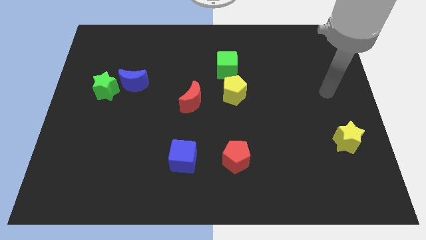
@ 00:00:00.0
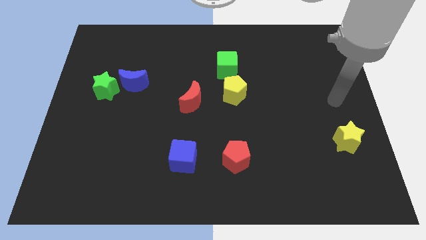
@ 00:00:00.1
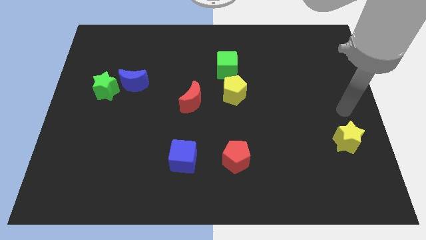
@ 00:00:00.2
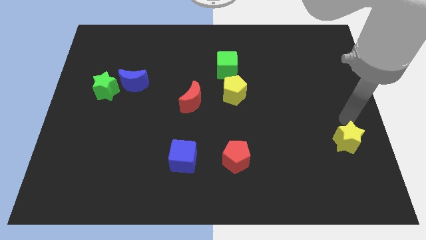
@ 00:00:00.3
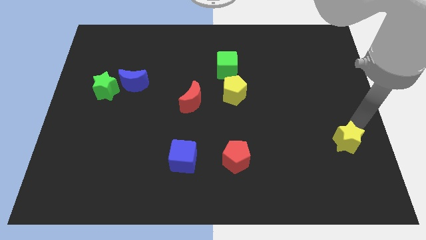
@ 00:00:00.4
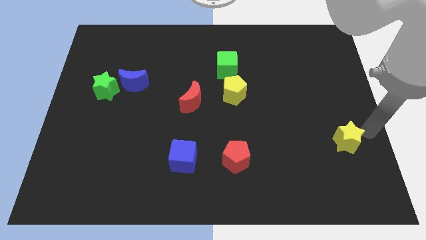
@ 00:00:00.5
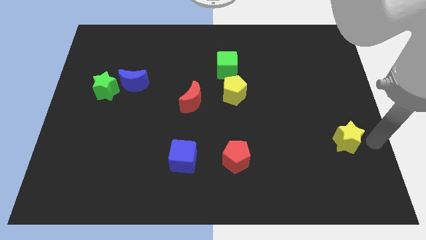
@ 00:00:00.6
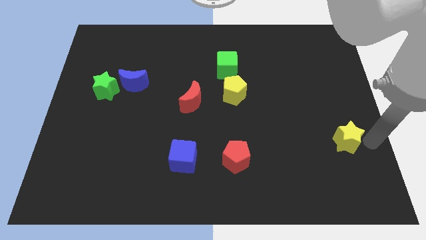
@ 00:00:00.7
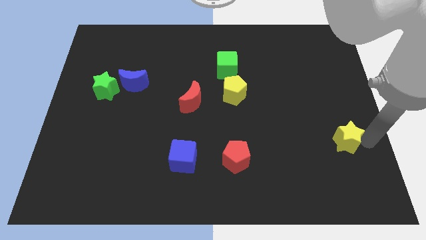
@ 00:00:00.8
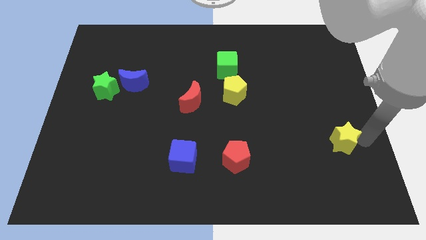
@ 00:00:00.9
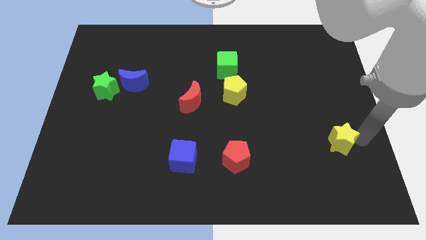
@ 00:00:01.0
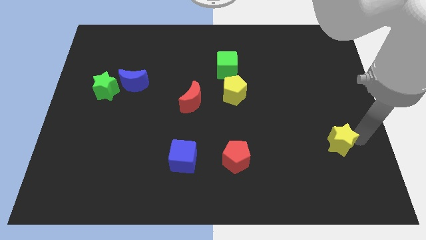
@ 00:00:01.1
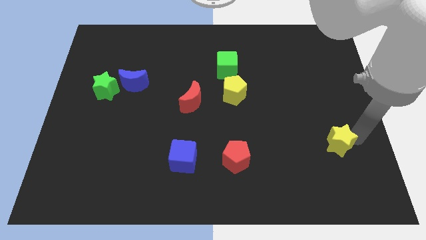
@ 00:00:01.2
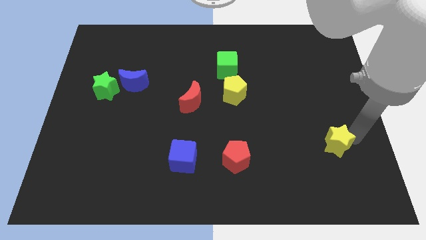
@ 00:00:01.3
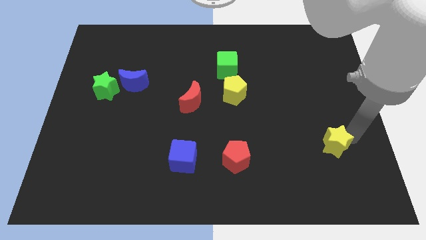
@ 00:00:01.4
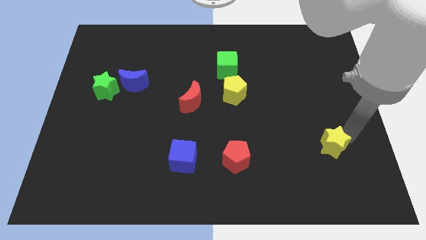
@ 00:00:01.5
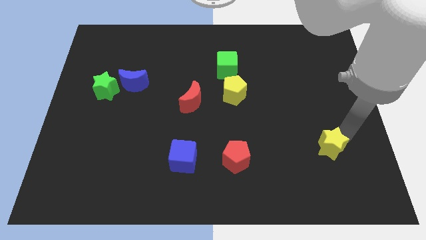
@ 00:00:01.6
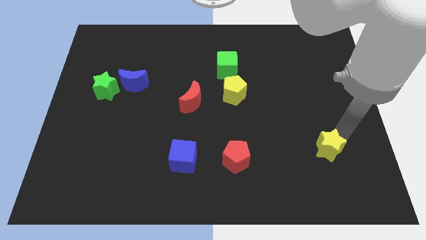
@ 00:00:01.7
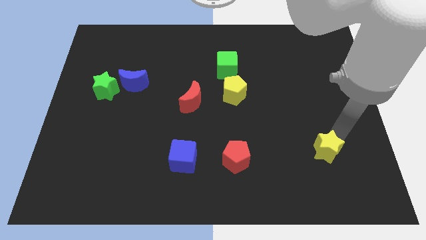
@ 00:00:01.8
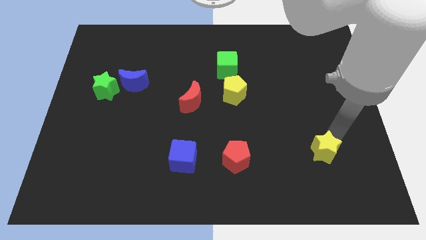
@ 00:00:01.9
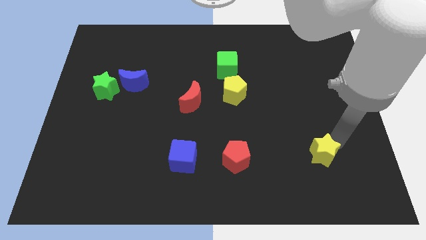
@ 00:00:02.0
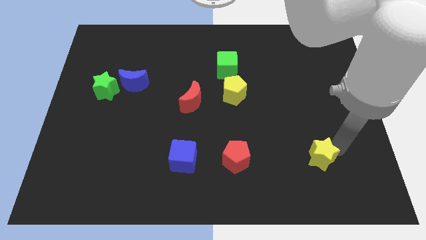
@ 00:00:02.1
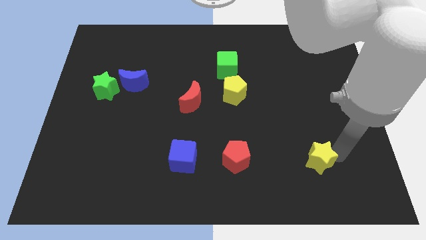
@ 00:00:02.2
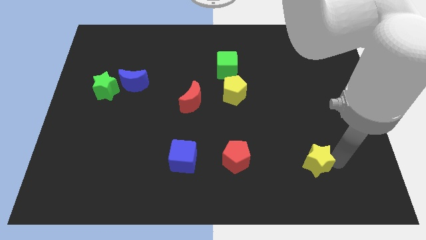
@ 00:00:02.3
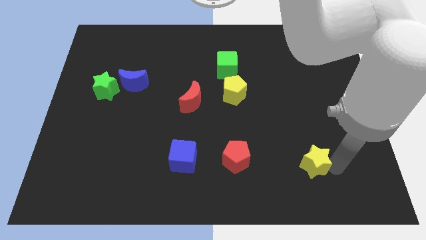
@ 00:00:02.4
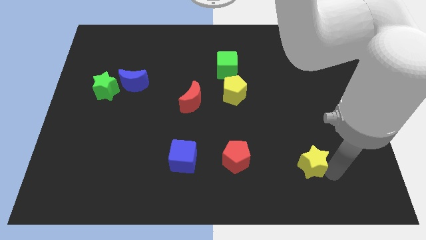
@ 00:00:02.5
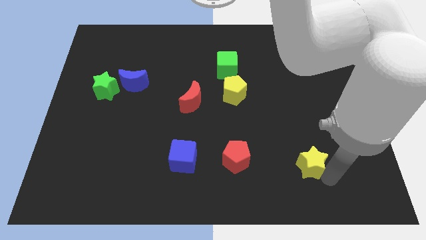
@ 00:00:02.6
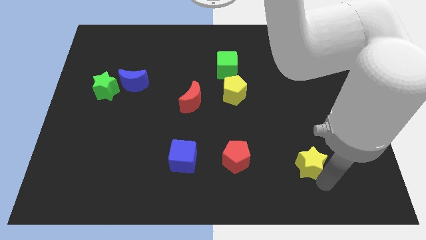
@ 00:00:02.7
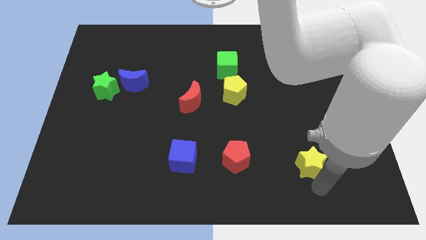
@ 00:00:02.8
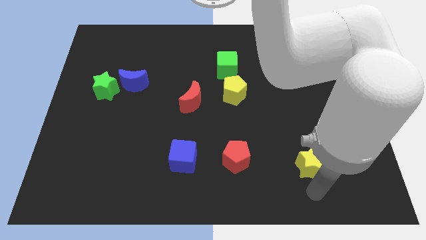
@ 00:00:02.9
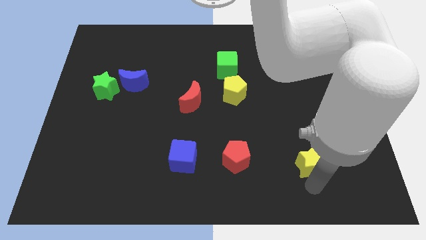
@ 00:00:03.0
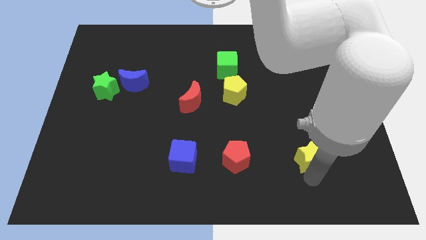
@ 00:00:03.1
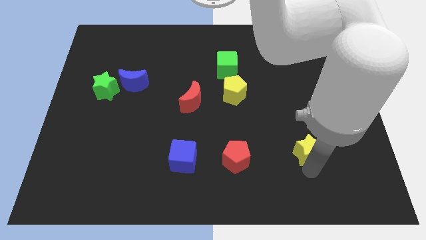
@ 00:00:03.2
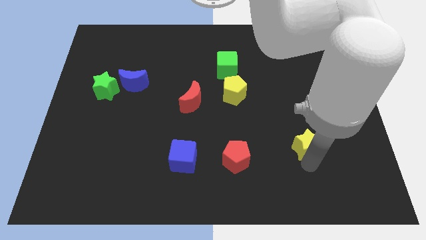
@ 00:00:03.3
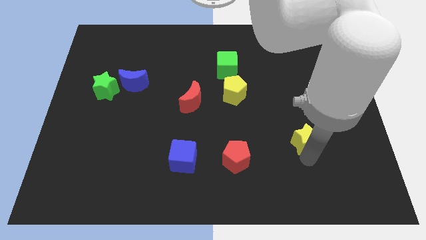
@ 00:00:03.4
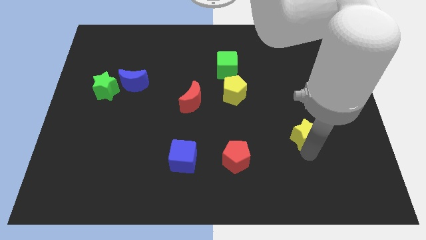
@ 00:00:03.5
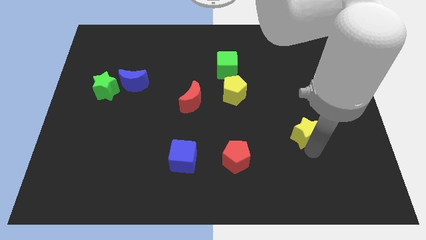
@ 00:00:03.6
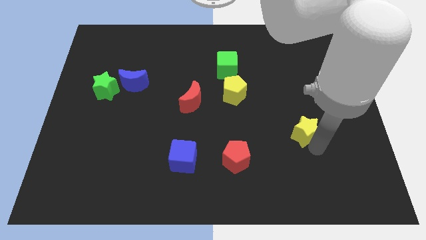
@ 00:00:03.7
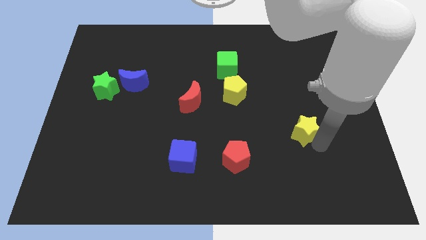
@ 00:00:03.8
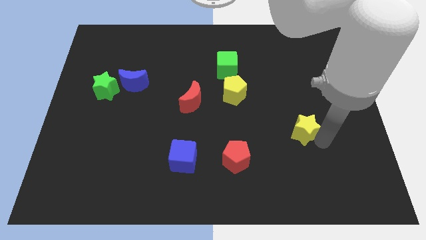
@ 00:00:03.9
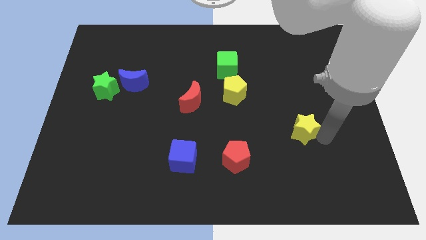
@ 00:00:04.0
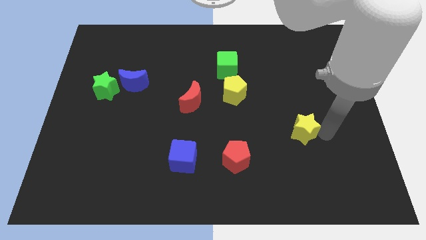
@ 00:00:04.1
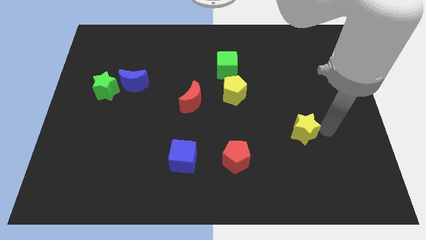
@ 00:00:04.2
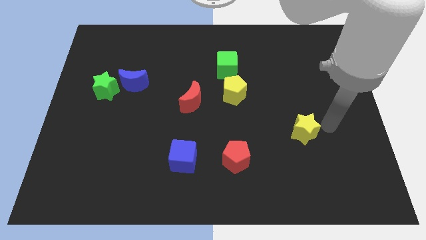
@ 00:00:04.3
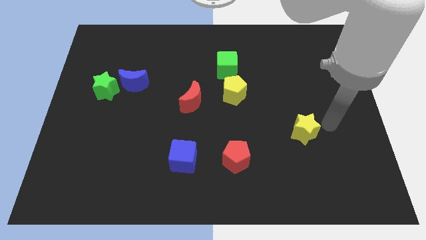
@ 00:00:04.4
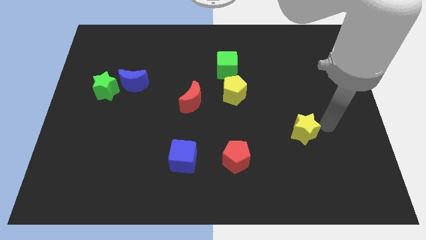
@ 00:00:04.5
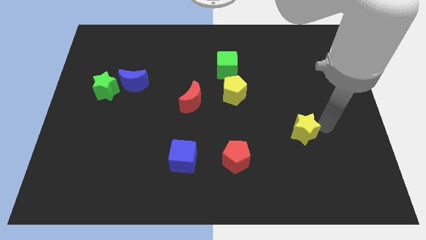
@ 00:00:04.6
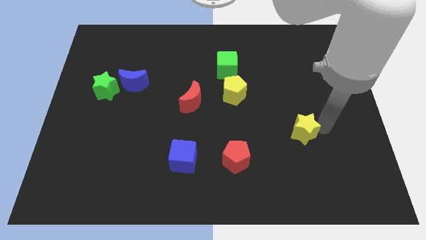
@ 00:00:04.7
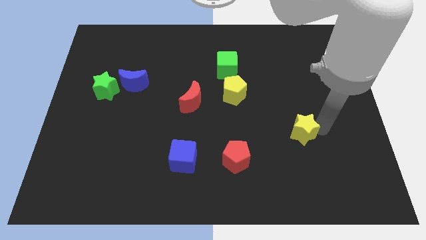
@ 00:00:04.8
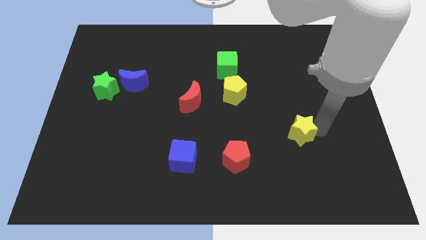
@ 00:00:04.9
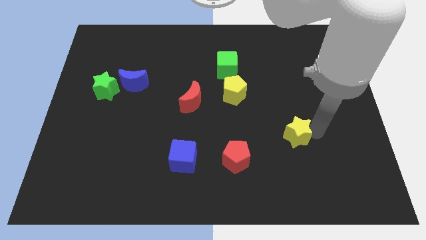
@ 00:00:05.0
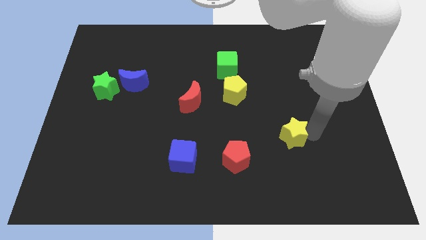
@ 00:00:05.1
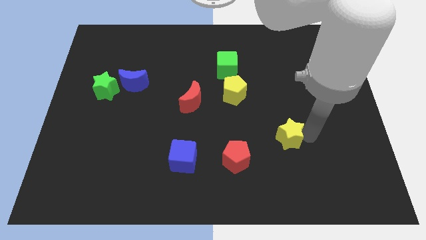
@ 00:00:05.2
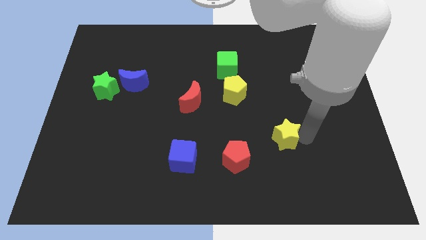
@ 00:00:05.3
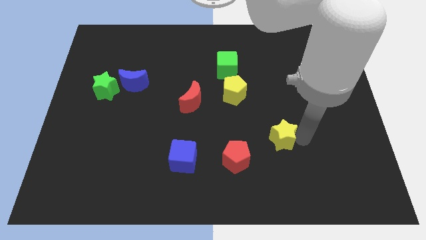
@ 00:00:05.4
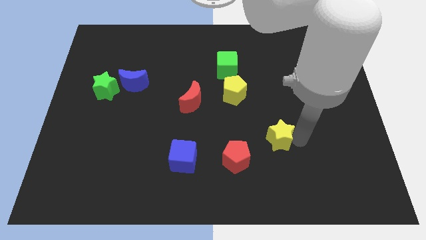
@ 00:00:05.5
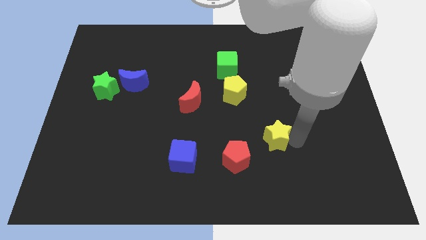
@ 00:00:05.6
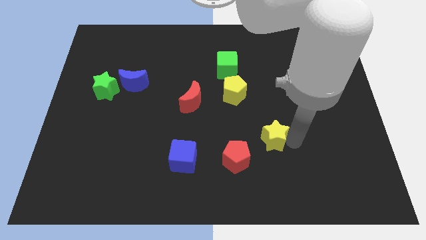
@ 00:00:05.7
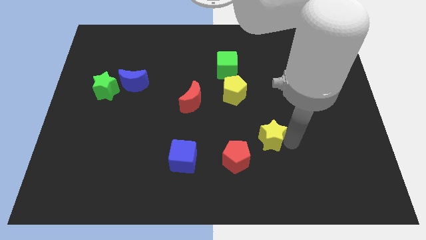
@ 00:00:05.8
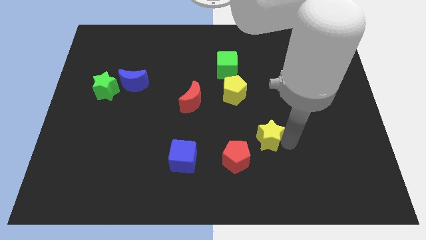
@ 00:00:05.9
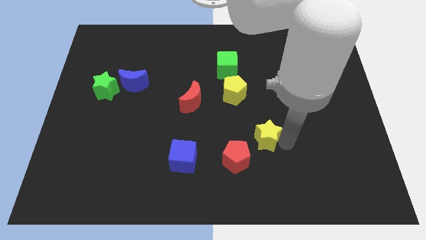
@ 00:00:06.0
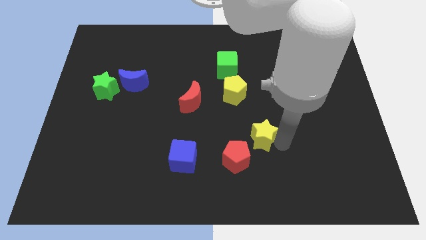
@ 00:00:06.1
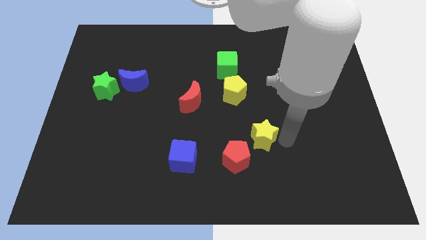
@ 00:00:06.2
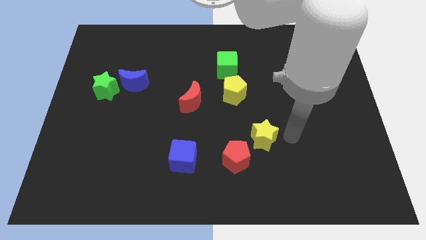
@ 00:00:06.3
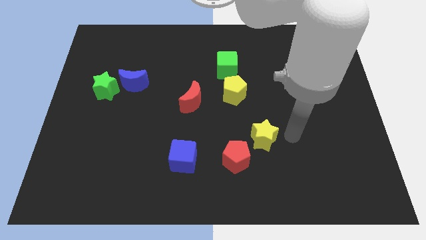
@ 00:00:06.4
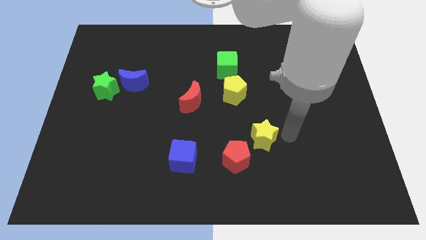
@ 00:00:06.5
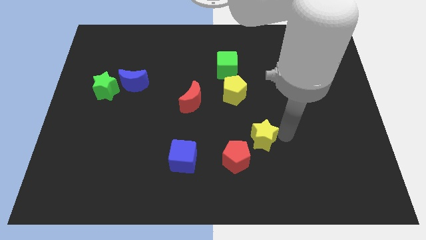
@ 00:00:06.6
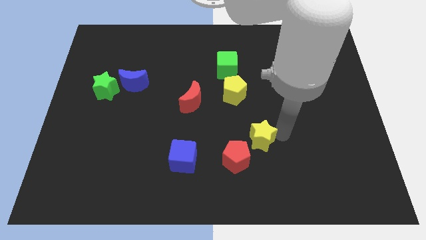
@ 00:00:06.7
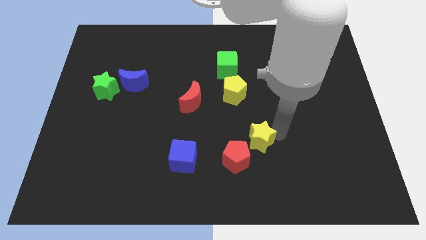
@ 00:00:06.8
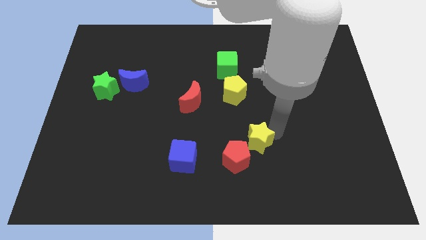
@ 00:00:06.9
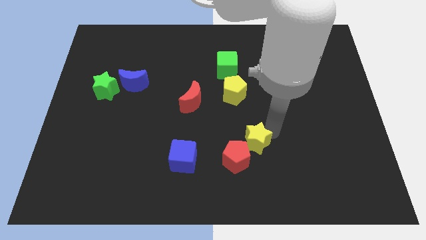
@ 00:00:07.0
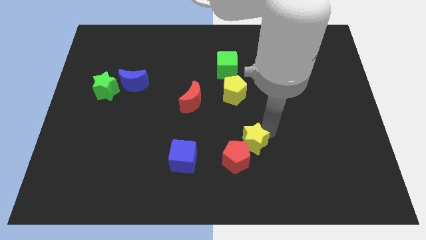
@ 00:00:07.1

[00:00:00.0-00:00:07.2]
slide the yellow star to the left

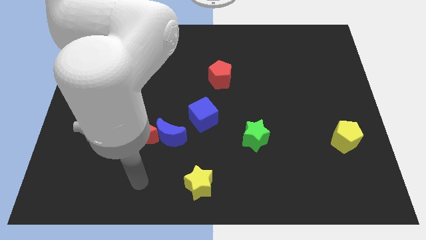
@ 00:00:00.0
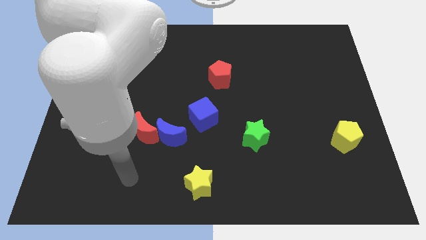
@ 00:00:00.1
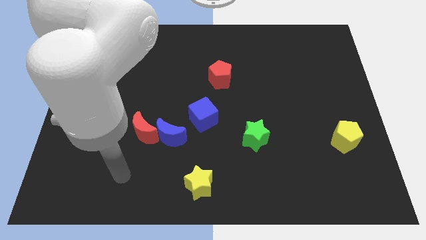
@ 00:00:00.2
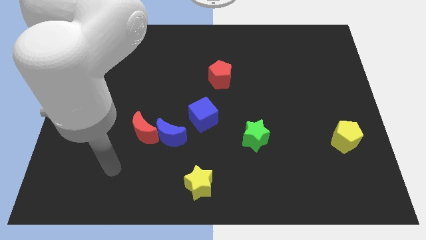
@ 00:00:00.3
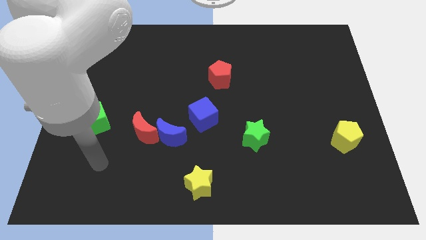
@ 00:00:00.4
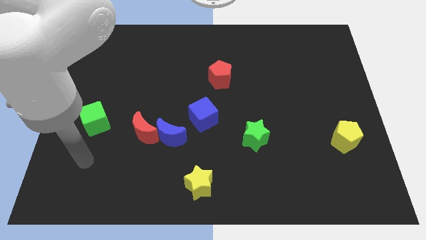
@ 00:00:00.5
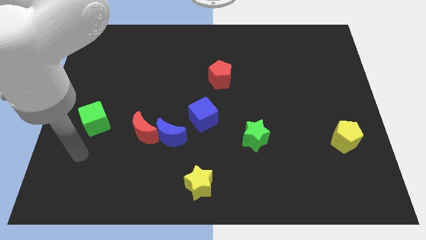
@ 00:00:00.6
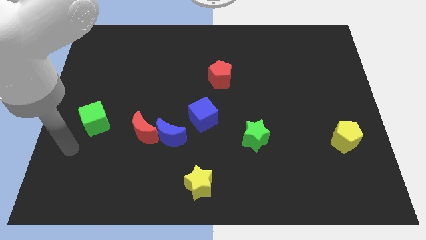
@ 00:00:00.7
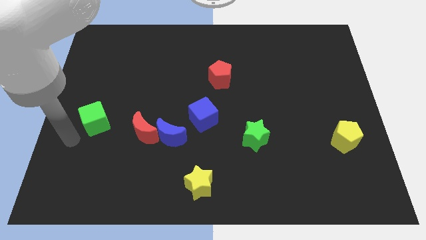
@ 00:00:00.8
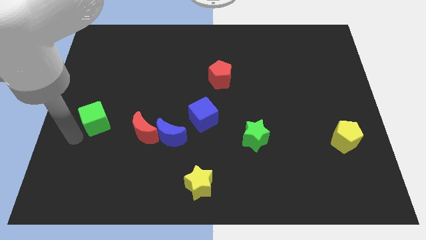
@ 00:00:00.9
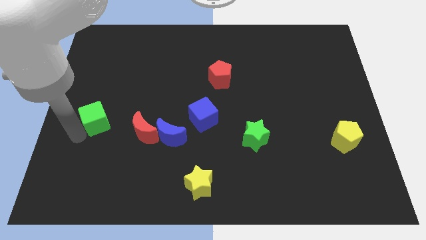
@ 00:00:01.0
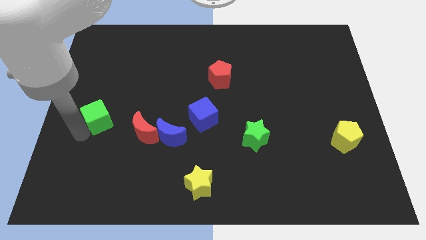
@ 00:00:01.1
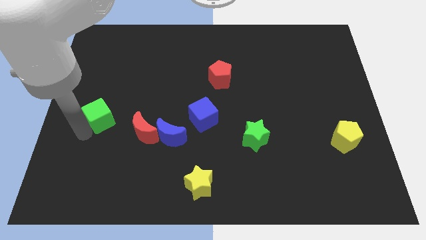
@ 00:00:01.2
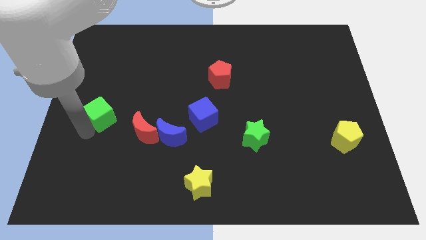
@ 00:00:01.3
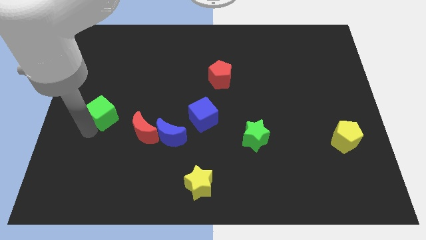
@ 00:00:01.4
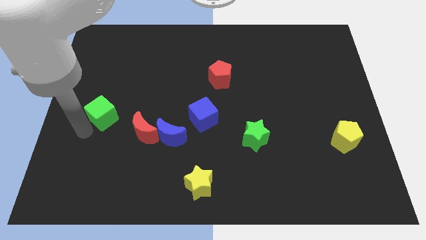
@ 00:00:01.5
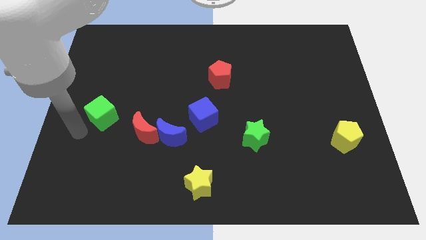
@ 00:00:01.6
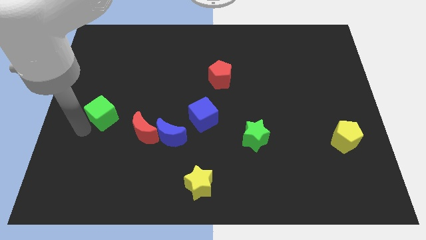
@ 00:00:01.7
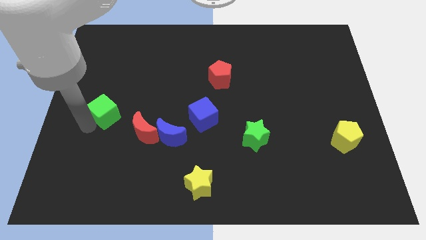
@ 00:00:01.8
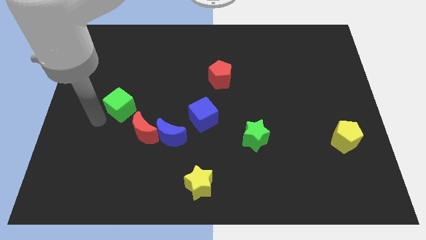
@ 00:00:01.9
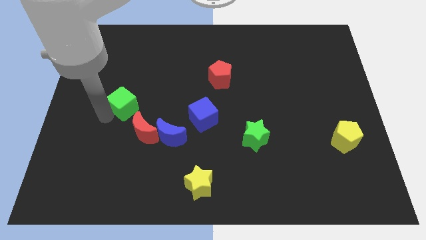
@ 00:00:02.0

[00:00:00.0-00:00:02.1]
move the green cube a little upwards and right diagonally
